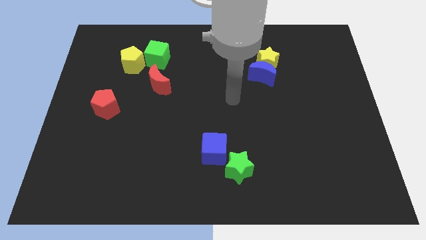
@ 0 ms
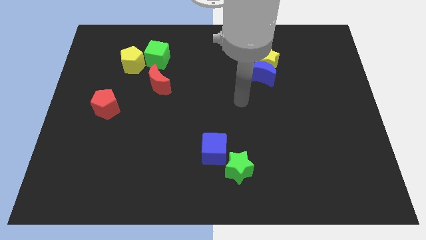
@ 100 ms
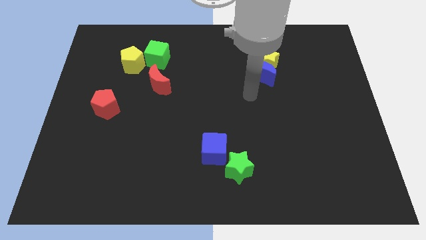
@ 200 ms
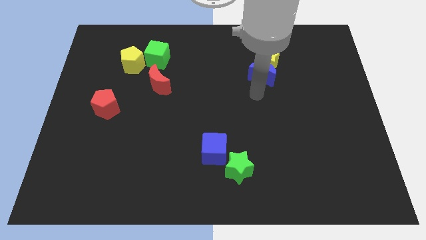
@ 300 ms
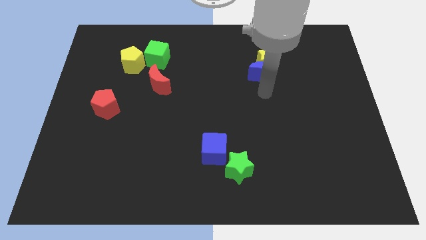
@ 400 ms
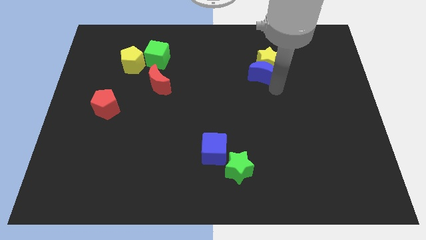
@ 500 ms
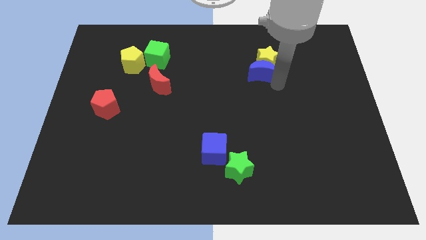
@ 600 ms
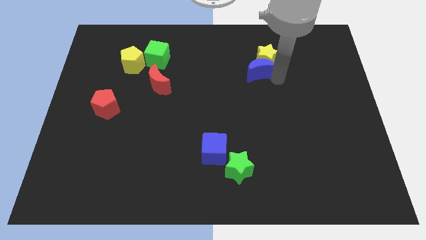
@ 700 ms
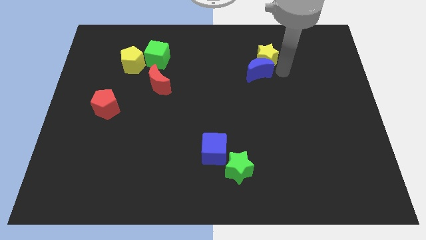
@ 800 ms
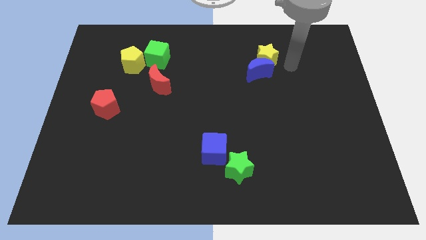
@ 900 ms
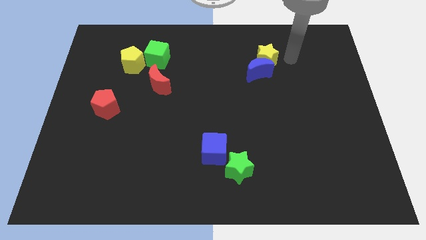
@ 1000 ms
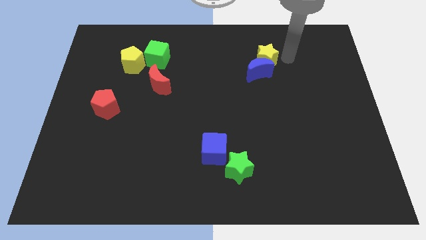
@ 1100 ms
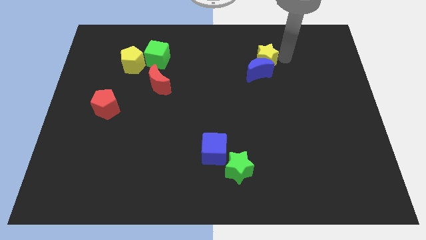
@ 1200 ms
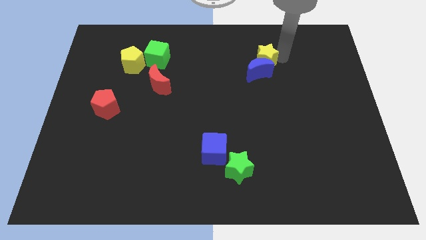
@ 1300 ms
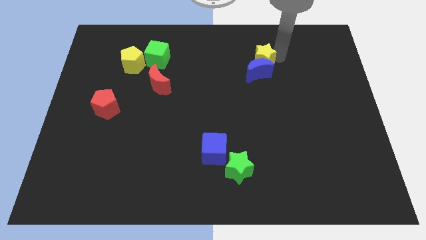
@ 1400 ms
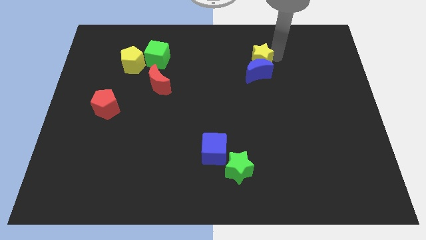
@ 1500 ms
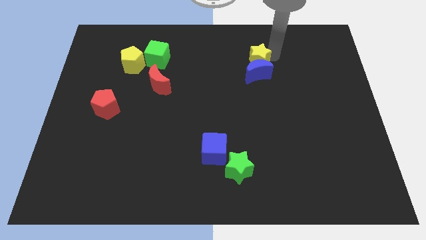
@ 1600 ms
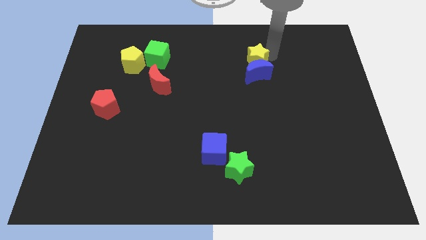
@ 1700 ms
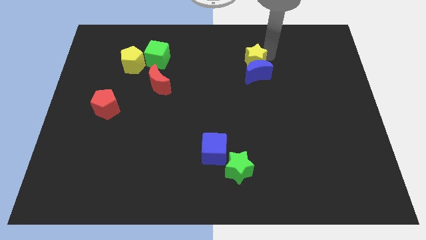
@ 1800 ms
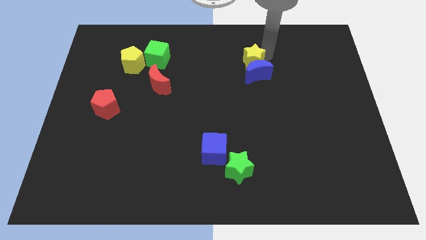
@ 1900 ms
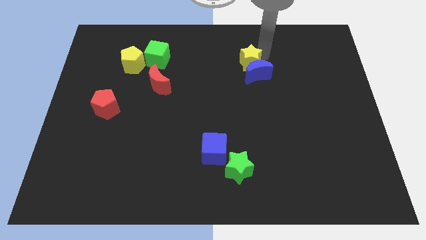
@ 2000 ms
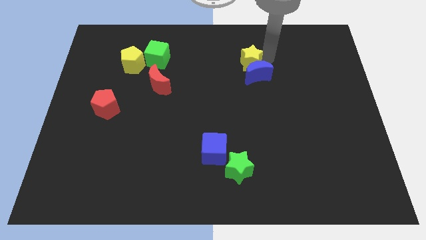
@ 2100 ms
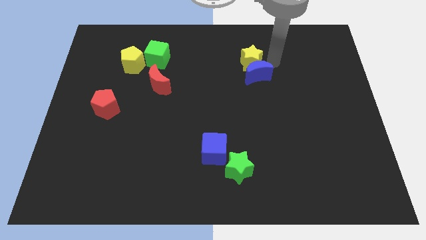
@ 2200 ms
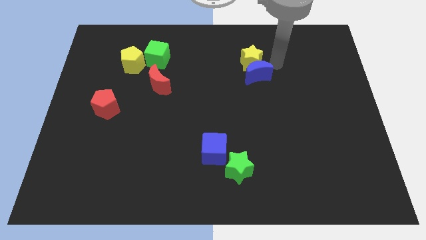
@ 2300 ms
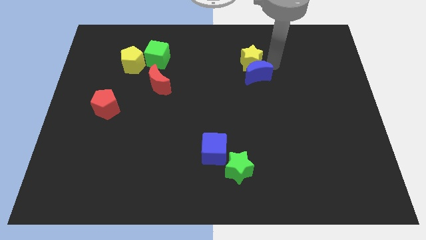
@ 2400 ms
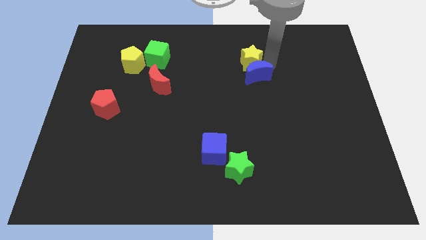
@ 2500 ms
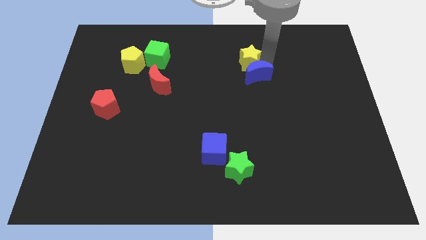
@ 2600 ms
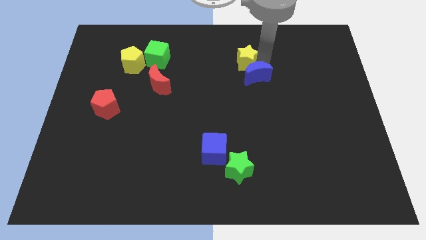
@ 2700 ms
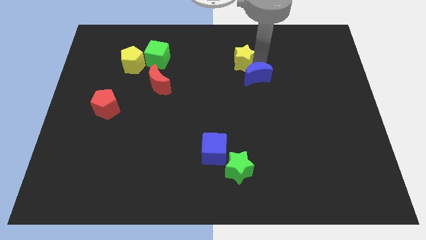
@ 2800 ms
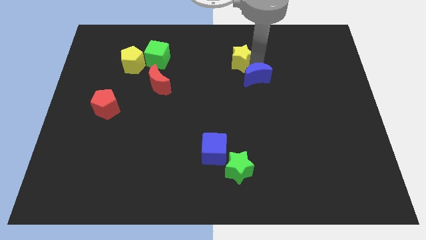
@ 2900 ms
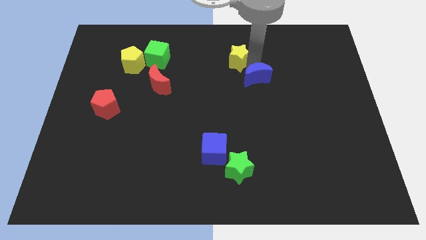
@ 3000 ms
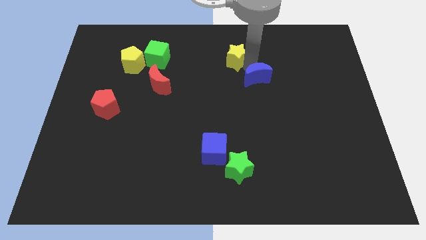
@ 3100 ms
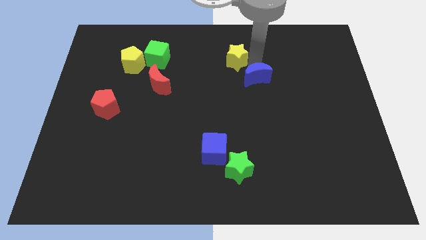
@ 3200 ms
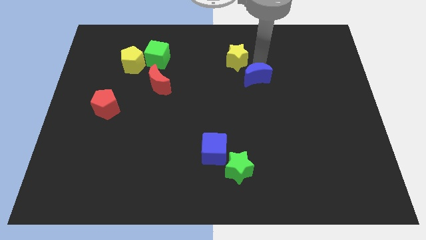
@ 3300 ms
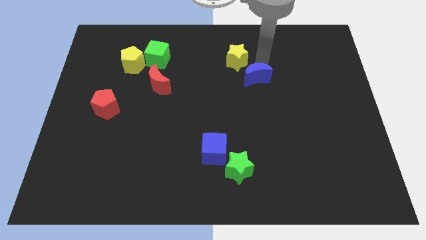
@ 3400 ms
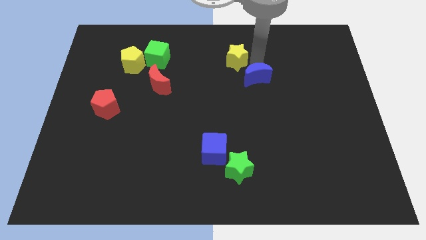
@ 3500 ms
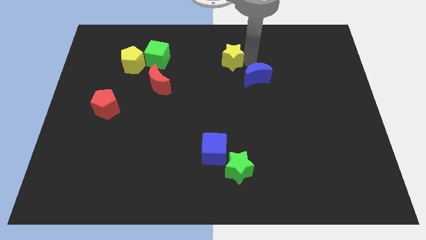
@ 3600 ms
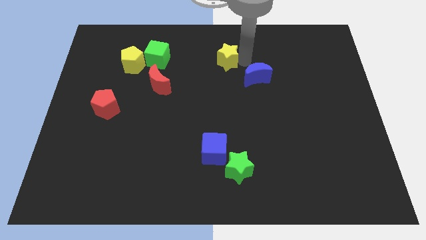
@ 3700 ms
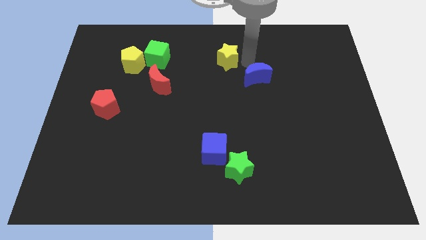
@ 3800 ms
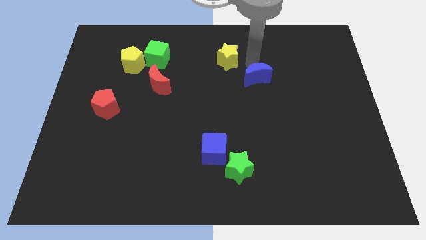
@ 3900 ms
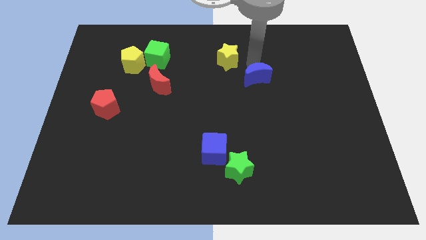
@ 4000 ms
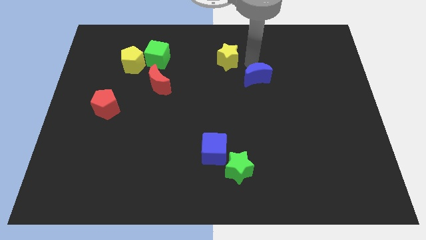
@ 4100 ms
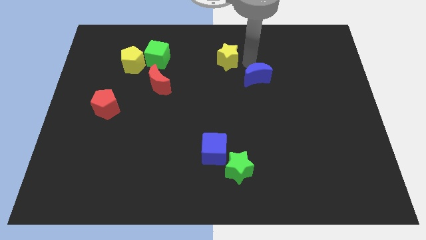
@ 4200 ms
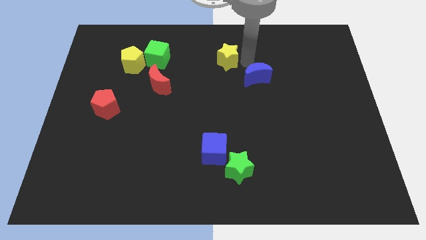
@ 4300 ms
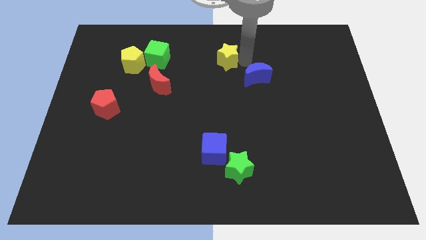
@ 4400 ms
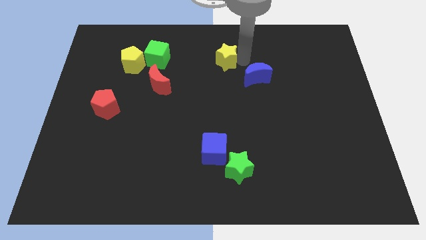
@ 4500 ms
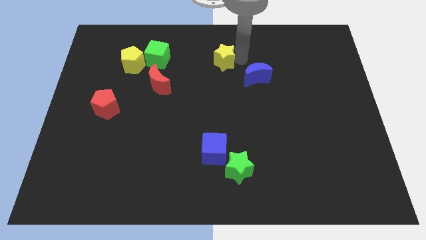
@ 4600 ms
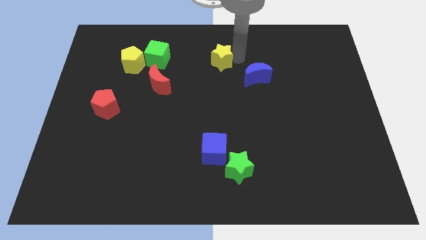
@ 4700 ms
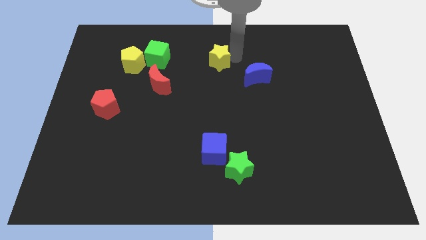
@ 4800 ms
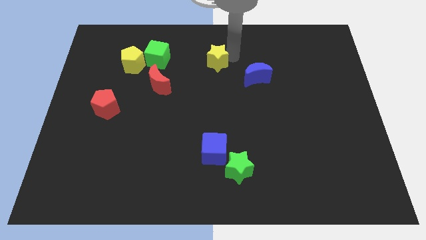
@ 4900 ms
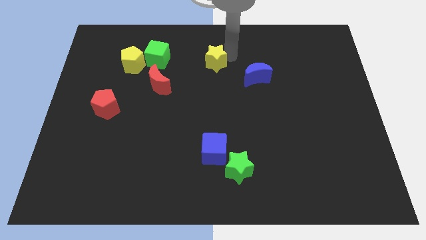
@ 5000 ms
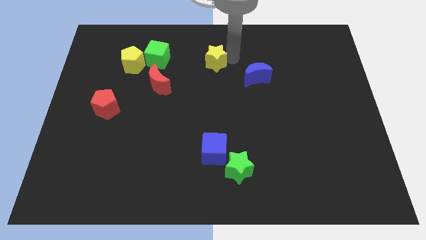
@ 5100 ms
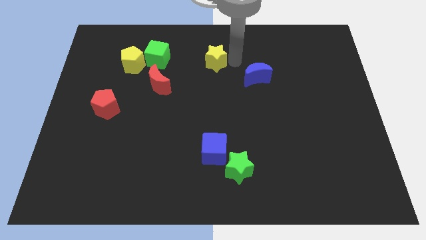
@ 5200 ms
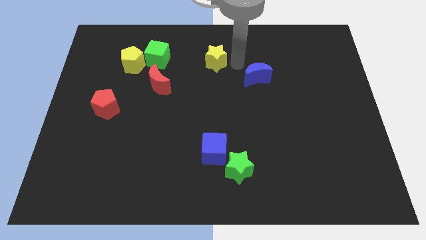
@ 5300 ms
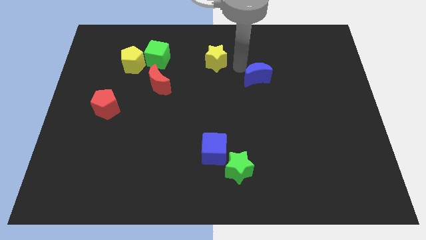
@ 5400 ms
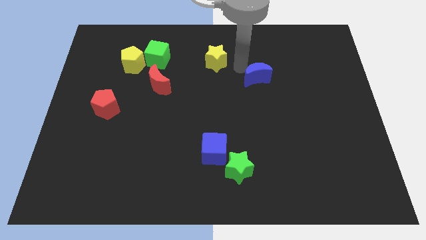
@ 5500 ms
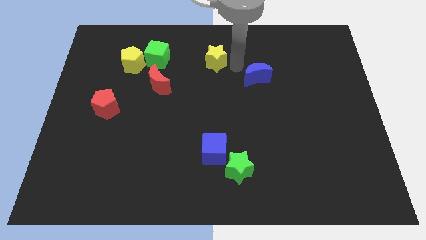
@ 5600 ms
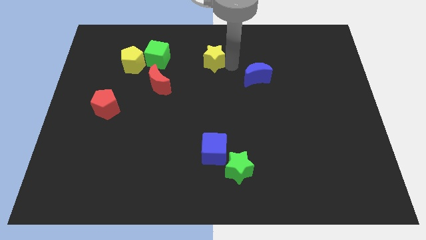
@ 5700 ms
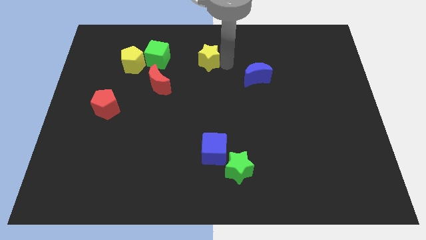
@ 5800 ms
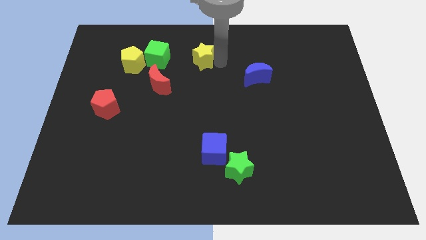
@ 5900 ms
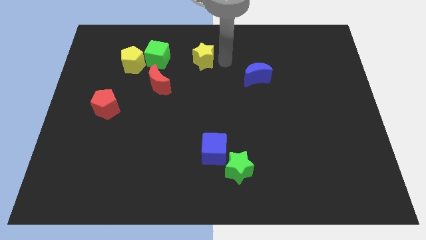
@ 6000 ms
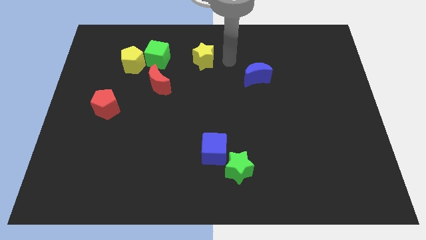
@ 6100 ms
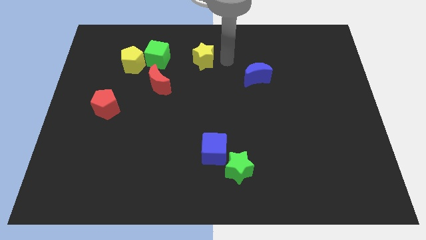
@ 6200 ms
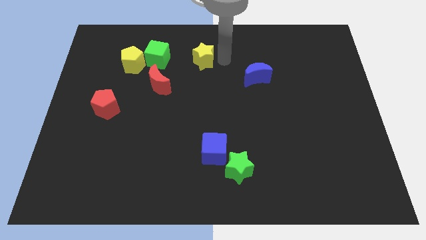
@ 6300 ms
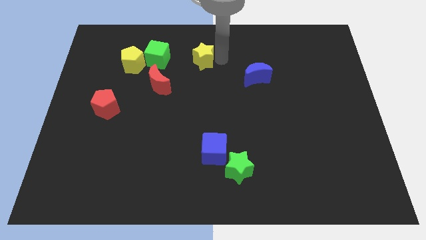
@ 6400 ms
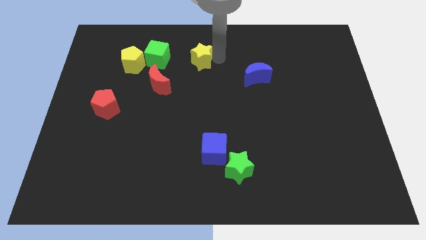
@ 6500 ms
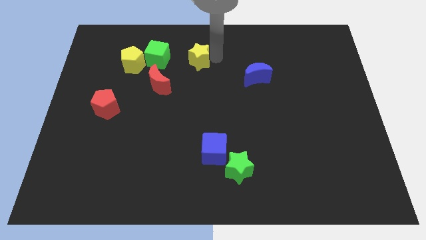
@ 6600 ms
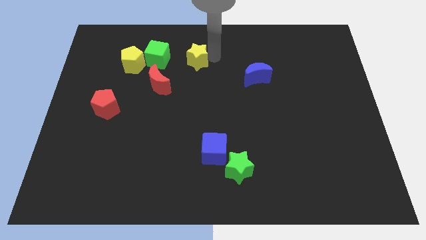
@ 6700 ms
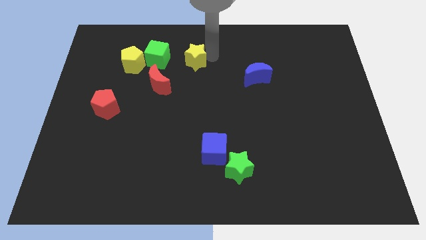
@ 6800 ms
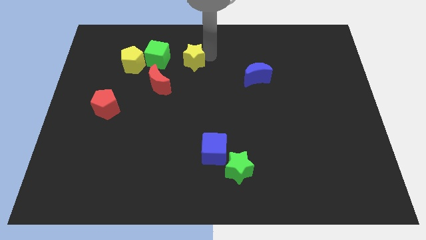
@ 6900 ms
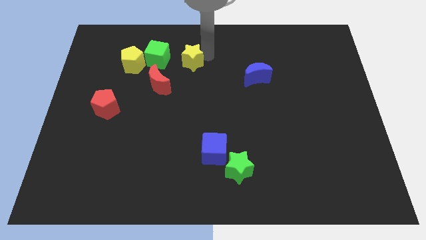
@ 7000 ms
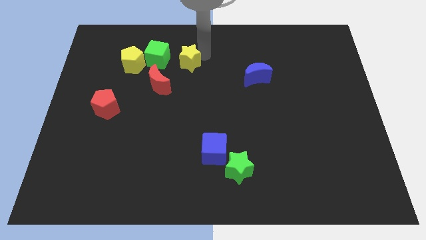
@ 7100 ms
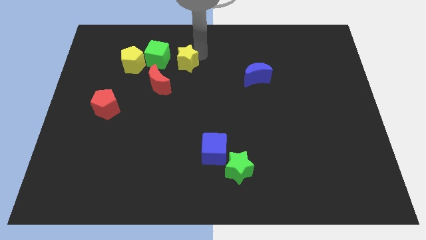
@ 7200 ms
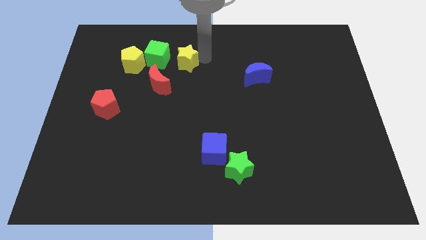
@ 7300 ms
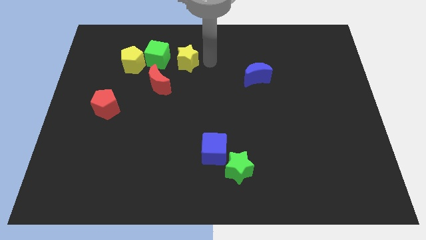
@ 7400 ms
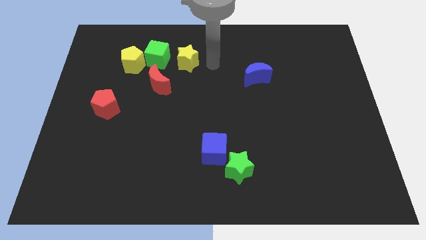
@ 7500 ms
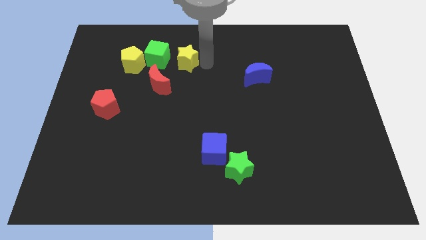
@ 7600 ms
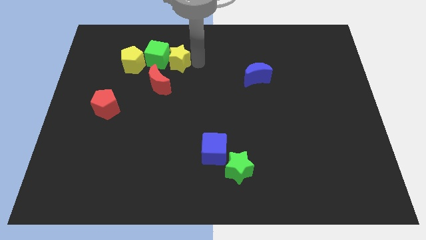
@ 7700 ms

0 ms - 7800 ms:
move the yellow star towards the green cube

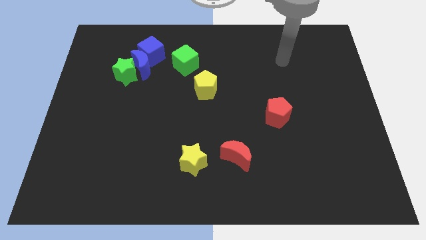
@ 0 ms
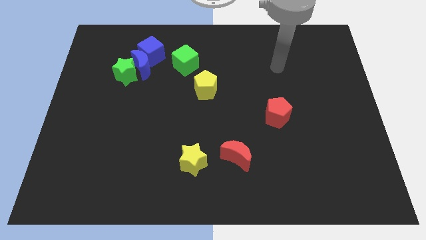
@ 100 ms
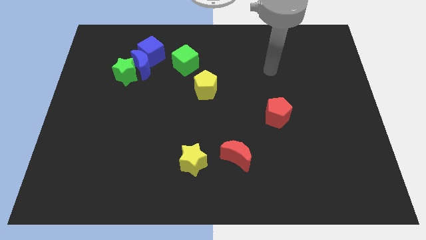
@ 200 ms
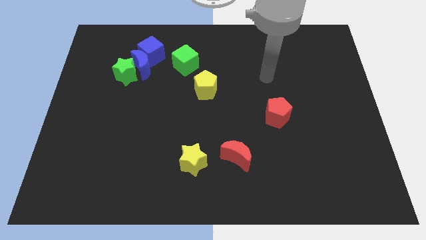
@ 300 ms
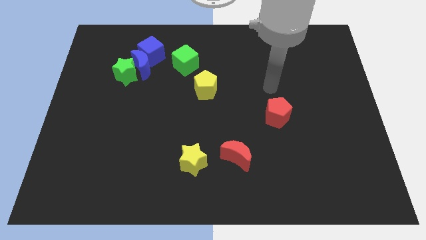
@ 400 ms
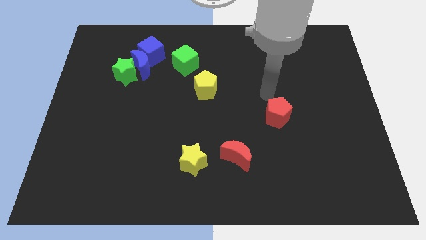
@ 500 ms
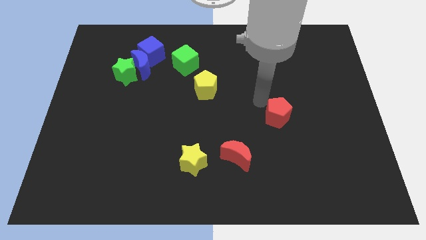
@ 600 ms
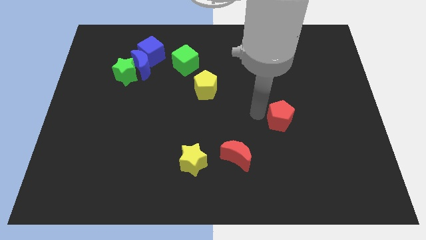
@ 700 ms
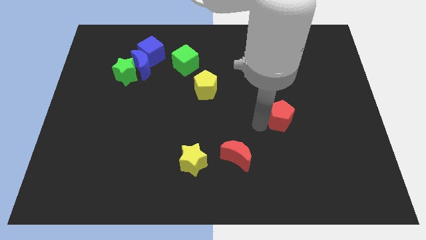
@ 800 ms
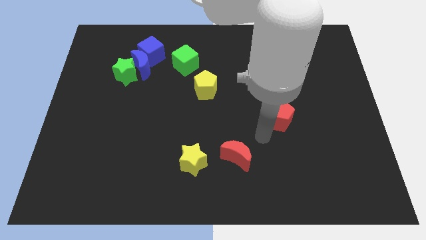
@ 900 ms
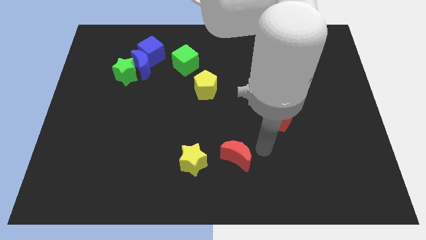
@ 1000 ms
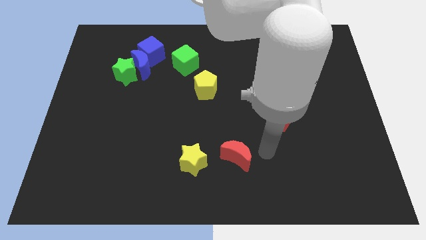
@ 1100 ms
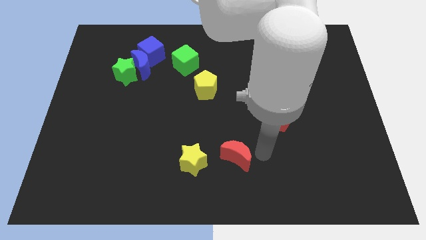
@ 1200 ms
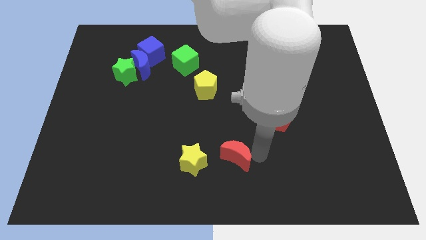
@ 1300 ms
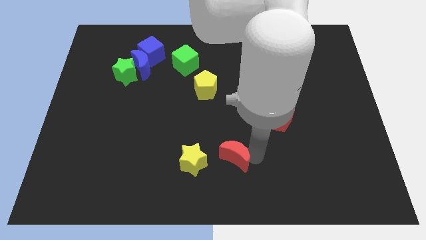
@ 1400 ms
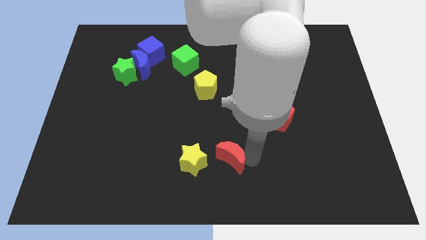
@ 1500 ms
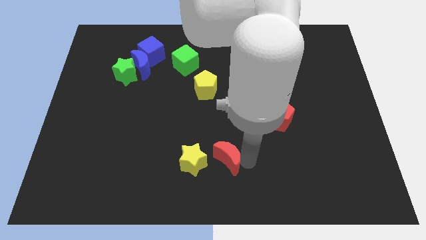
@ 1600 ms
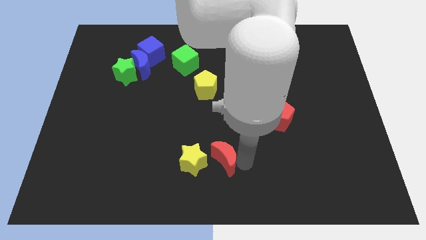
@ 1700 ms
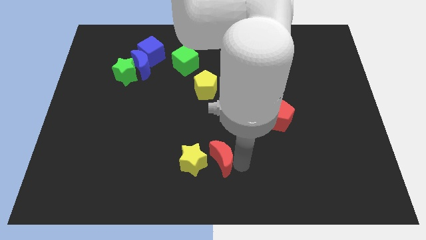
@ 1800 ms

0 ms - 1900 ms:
slide the red moon to the yellow star
